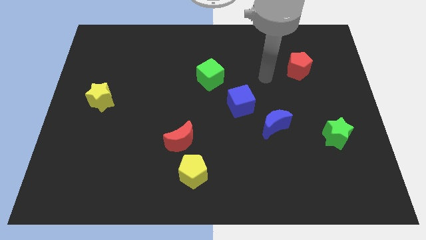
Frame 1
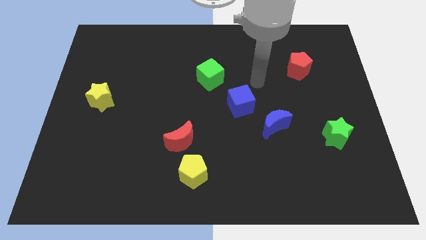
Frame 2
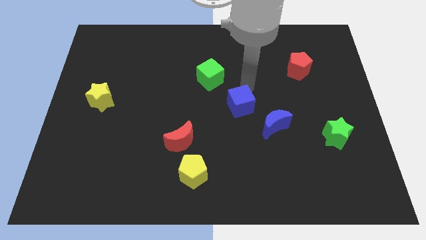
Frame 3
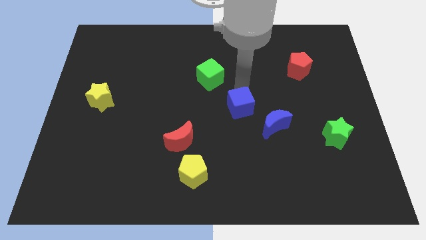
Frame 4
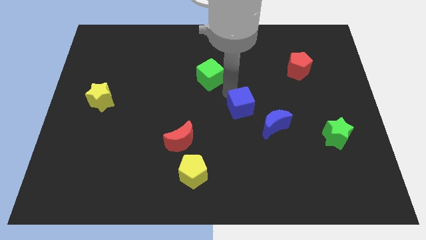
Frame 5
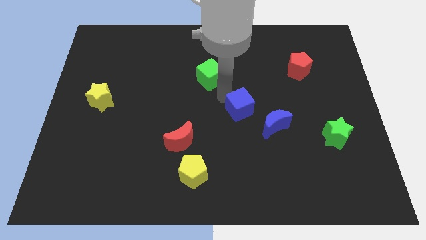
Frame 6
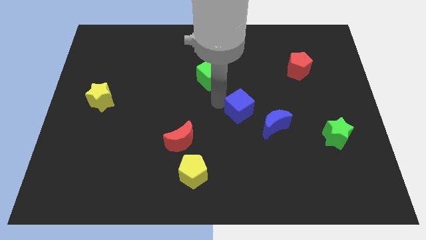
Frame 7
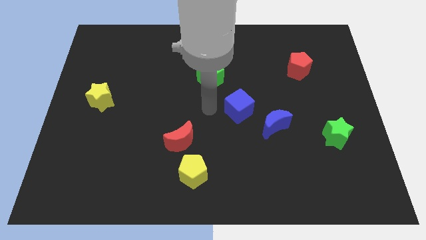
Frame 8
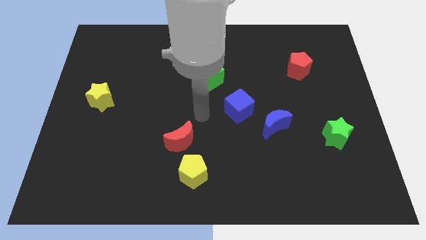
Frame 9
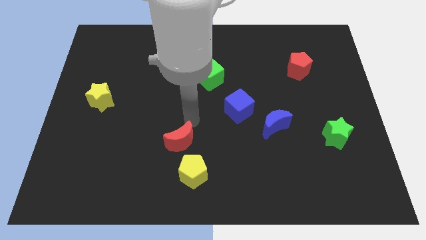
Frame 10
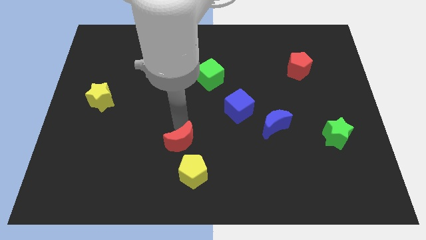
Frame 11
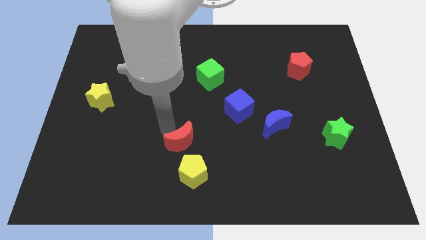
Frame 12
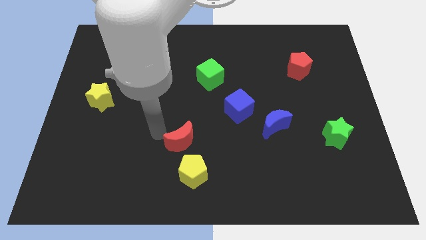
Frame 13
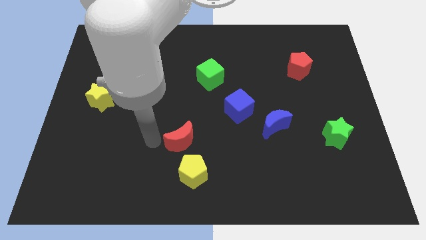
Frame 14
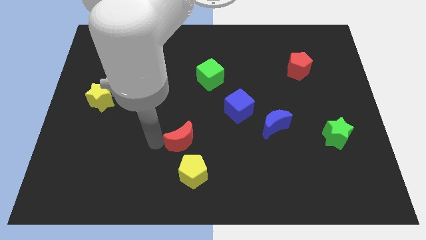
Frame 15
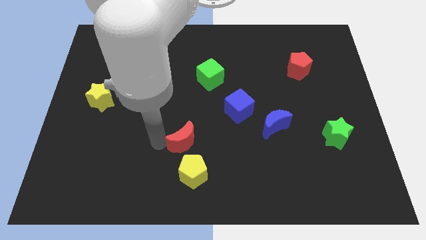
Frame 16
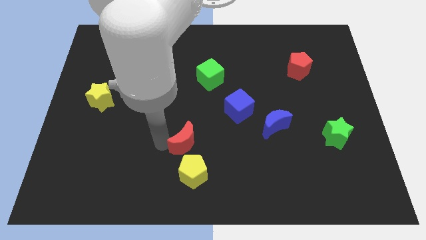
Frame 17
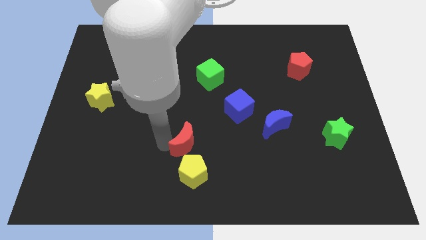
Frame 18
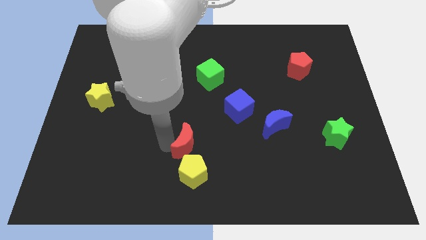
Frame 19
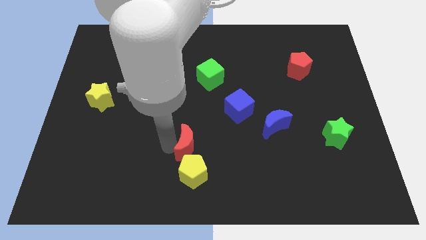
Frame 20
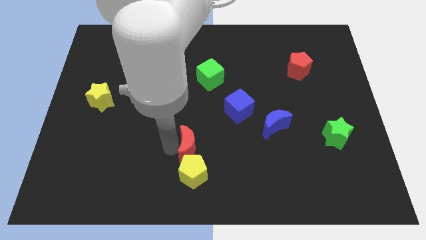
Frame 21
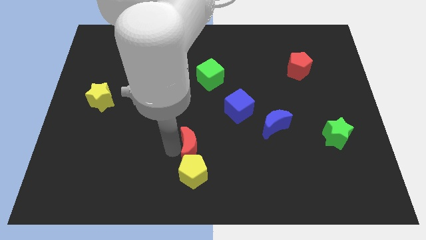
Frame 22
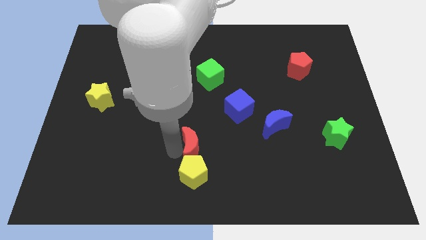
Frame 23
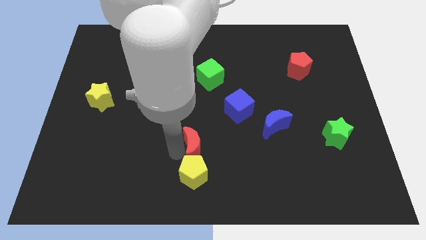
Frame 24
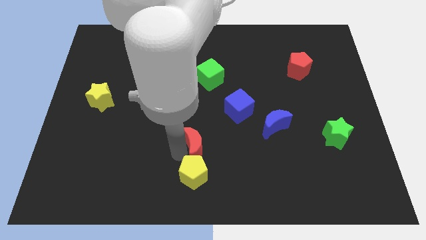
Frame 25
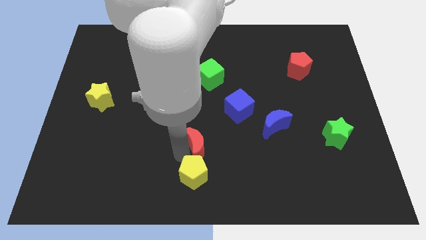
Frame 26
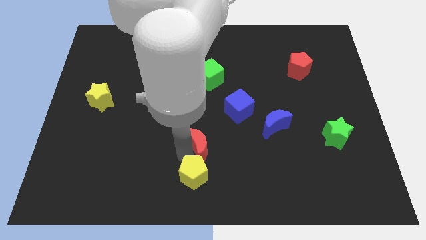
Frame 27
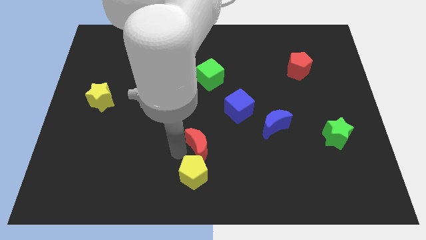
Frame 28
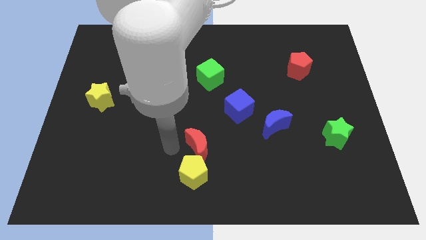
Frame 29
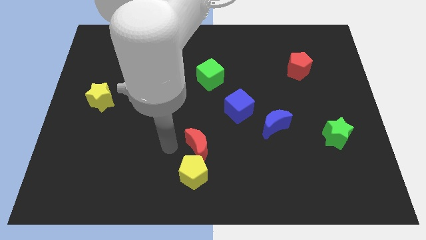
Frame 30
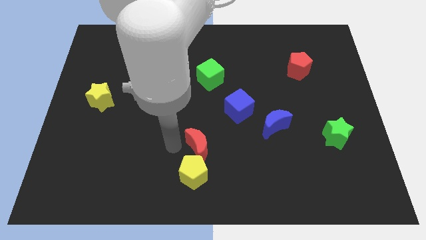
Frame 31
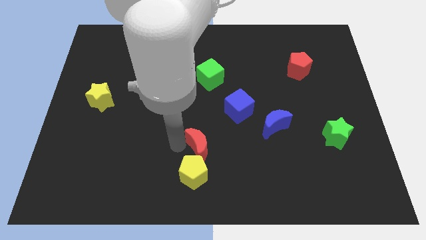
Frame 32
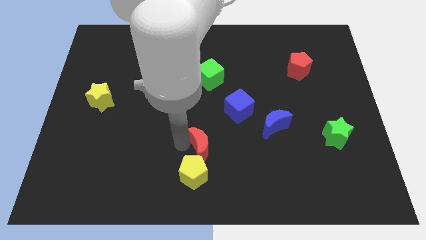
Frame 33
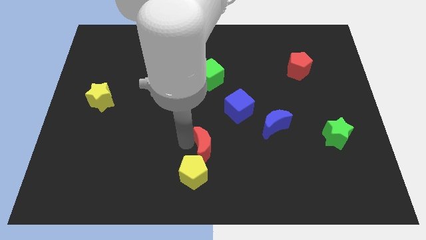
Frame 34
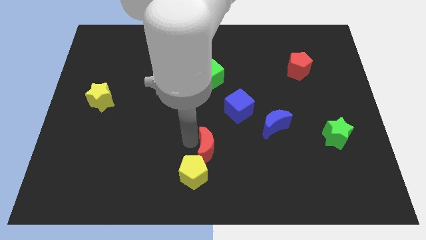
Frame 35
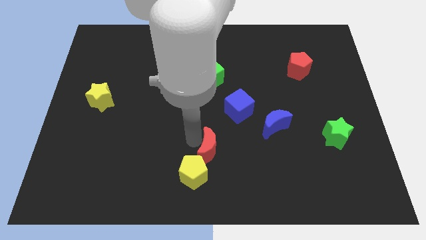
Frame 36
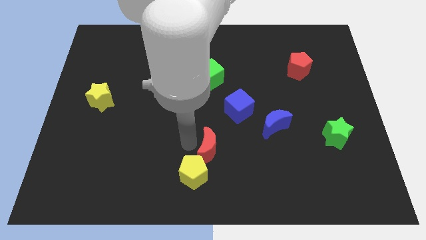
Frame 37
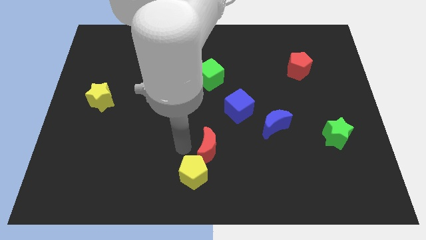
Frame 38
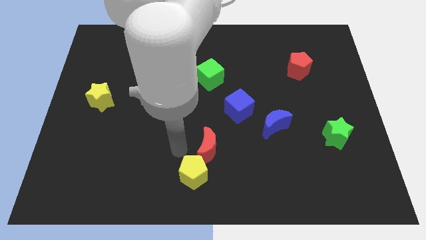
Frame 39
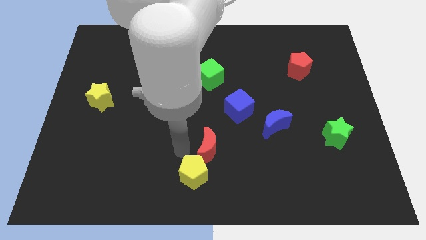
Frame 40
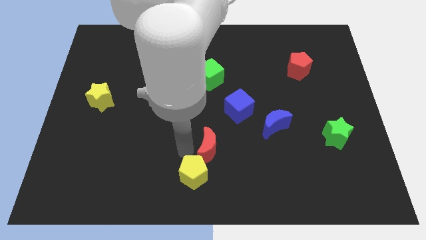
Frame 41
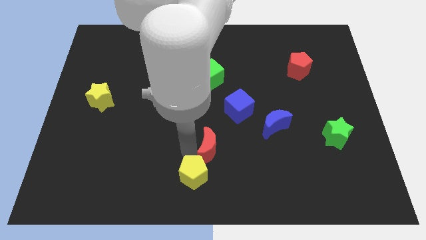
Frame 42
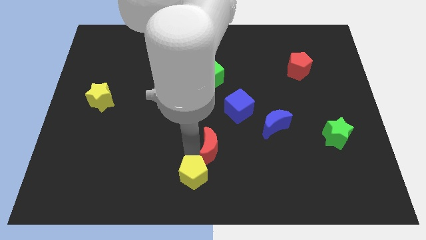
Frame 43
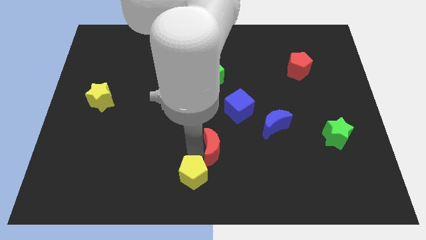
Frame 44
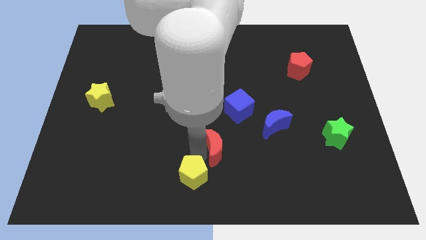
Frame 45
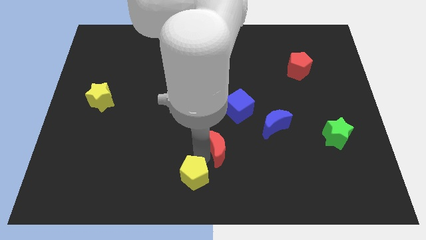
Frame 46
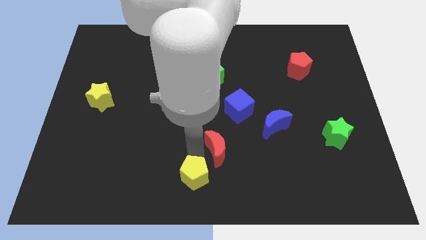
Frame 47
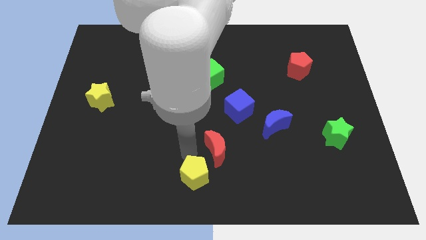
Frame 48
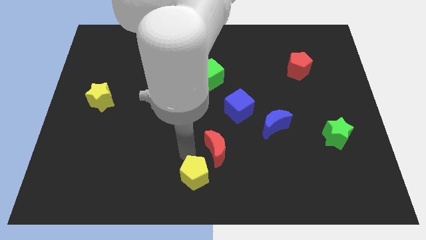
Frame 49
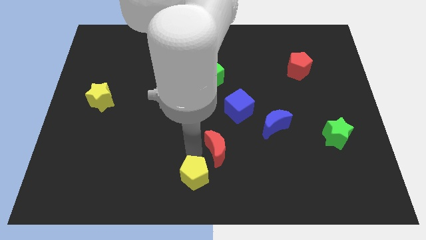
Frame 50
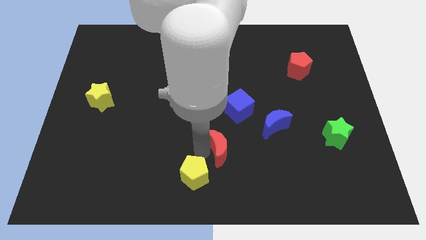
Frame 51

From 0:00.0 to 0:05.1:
push the red moon to the bottom of the blue cube

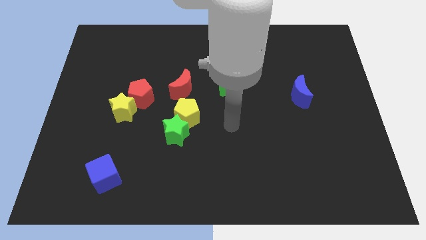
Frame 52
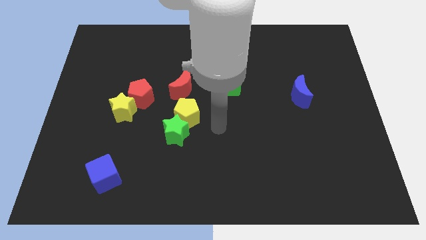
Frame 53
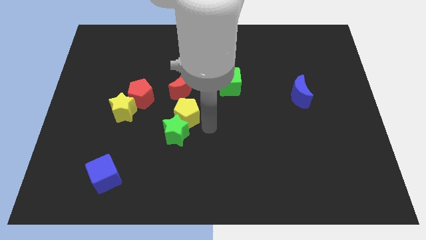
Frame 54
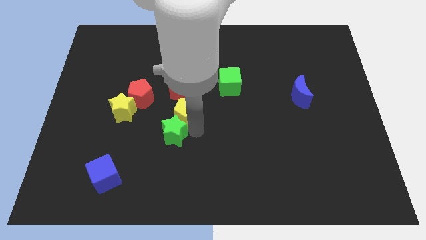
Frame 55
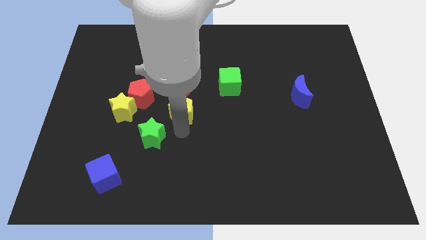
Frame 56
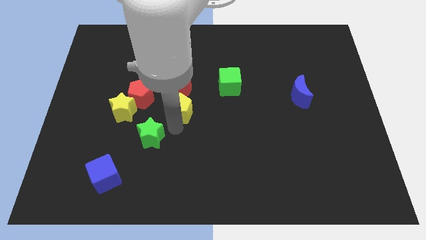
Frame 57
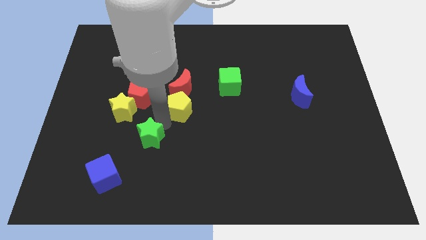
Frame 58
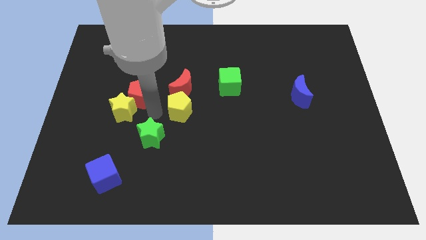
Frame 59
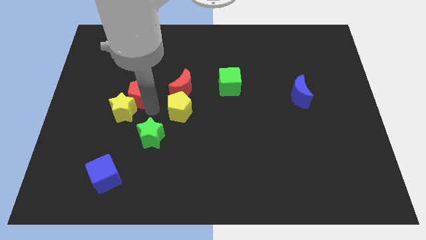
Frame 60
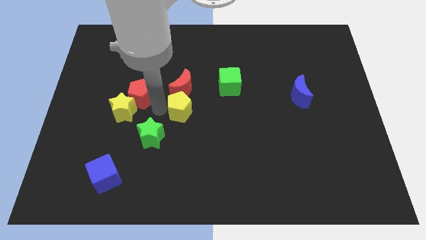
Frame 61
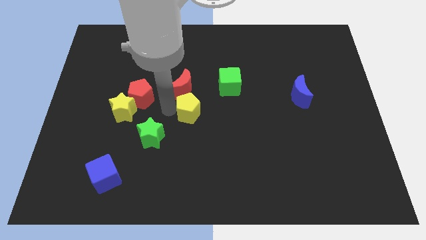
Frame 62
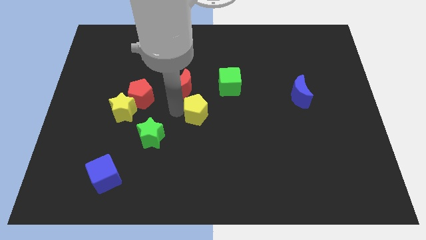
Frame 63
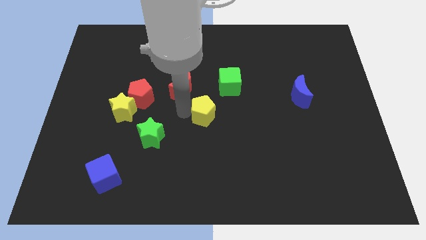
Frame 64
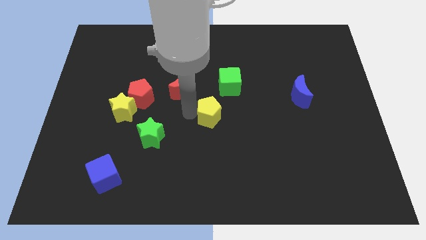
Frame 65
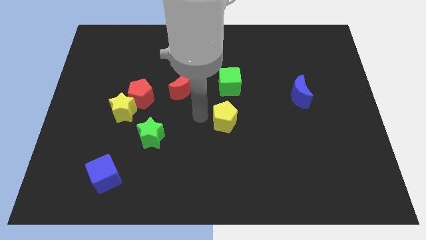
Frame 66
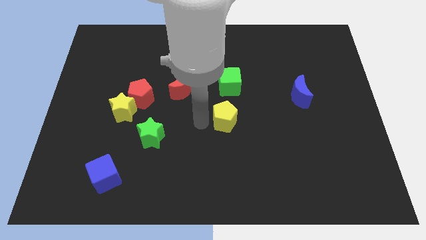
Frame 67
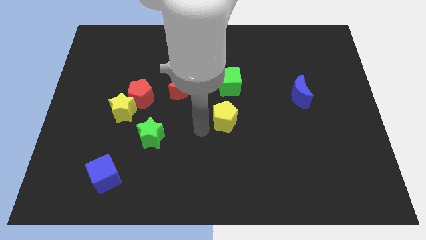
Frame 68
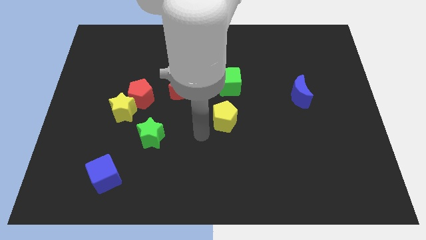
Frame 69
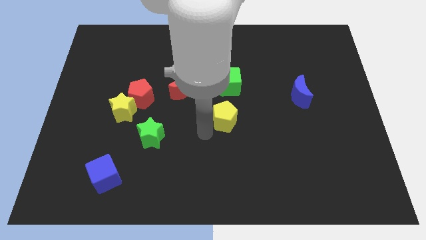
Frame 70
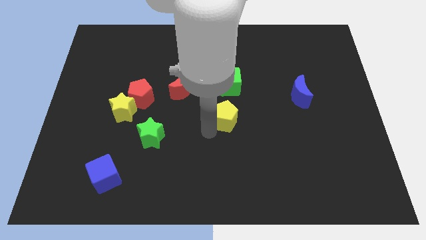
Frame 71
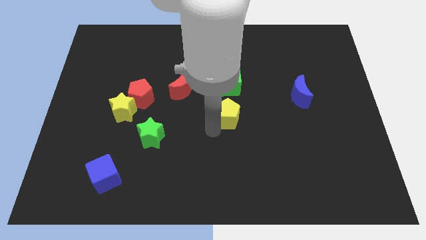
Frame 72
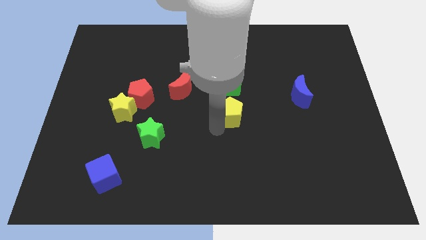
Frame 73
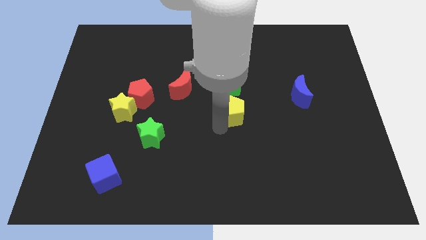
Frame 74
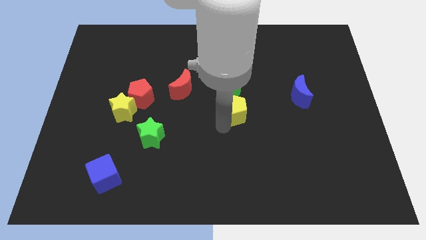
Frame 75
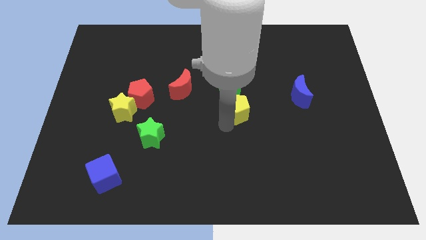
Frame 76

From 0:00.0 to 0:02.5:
move the yellow pentagon diagonally down and to the right of the green cube

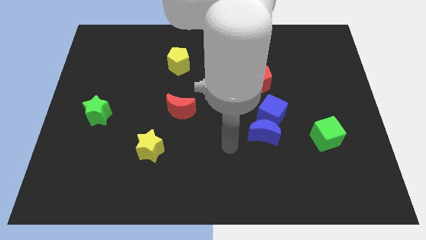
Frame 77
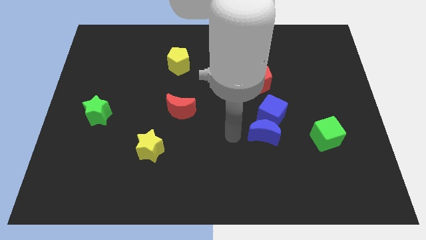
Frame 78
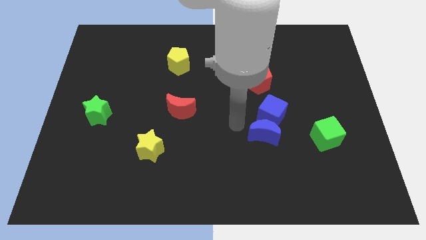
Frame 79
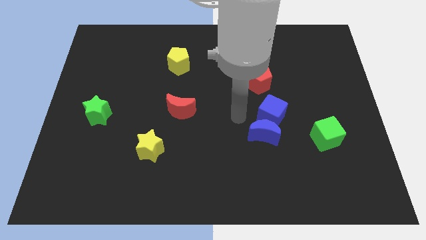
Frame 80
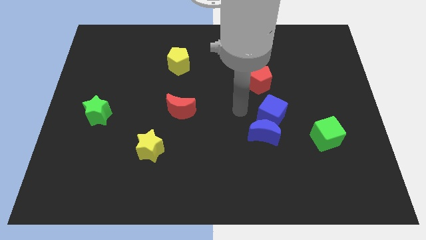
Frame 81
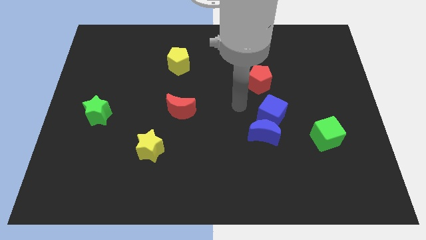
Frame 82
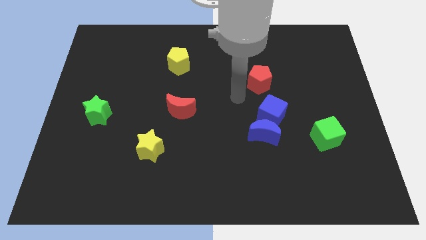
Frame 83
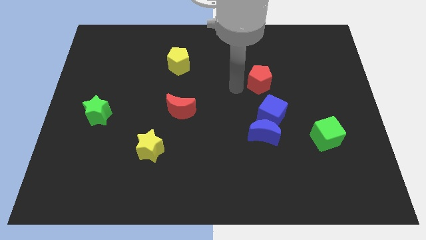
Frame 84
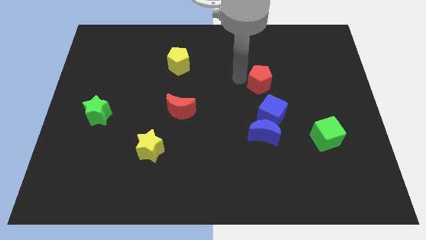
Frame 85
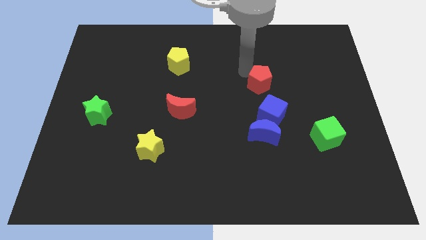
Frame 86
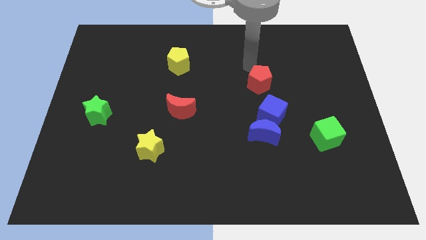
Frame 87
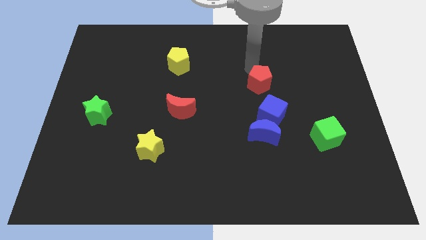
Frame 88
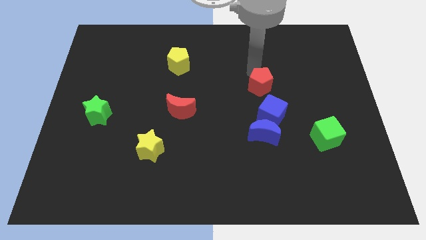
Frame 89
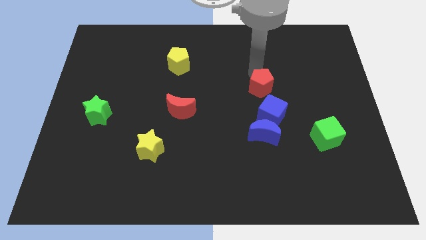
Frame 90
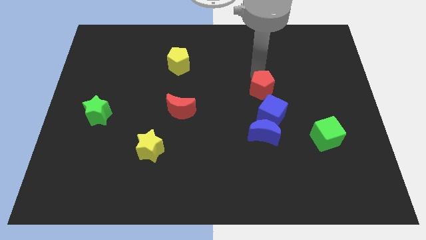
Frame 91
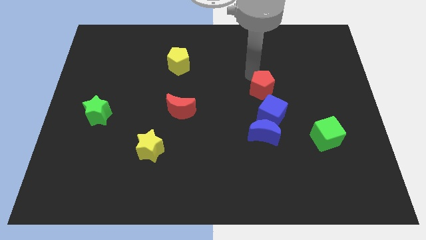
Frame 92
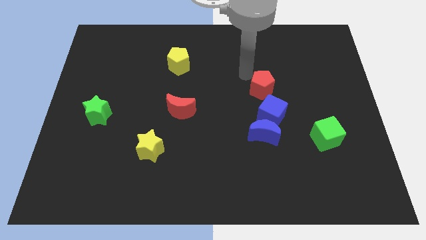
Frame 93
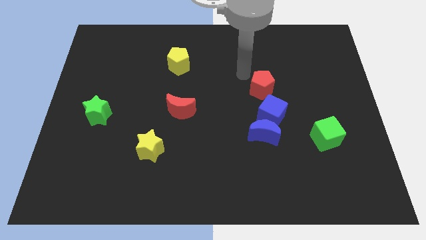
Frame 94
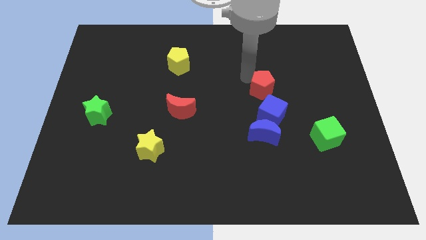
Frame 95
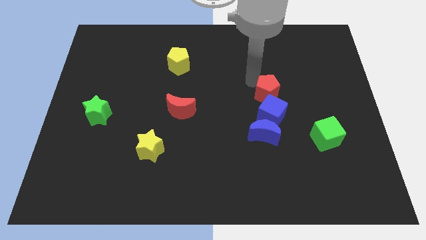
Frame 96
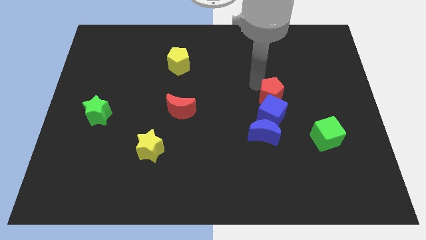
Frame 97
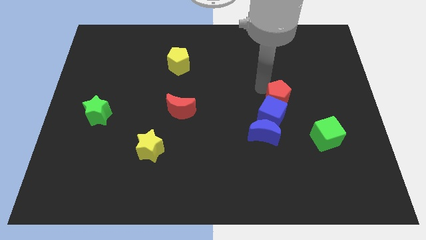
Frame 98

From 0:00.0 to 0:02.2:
push the red pentagon diagonally up and to the right of the blue moon
